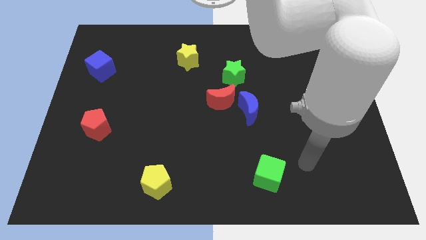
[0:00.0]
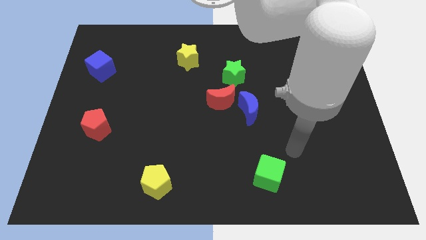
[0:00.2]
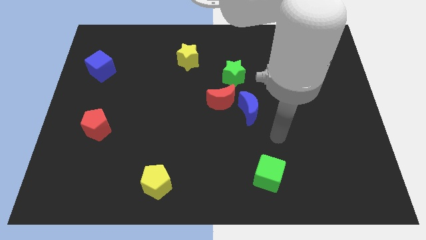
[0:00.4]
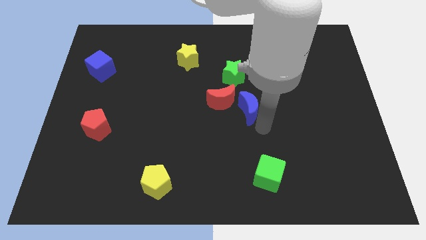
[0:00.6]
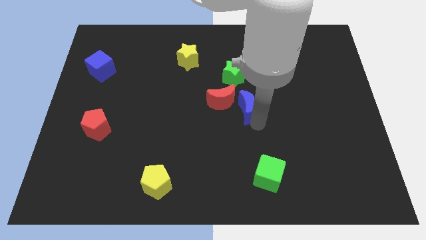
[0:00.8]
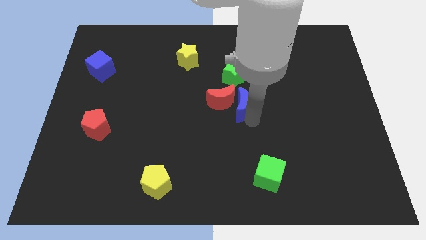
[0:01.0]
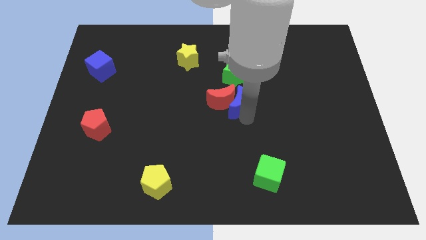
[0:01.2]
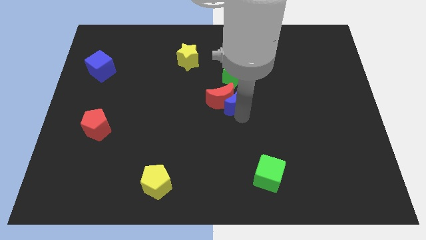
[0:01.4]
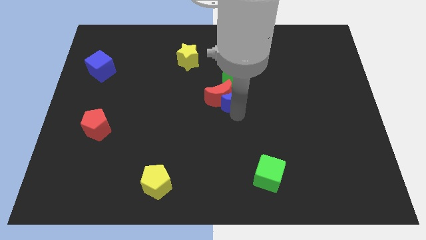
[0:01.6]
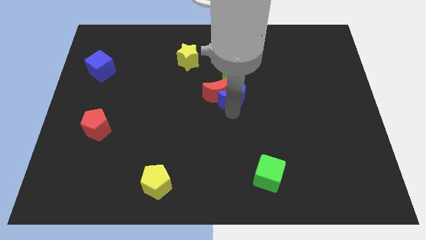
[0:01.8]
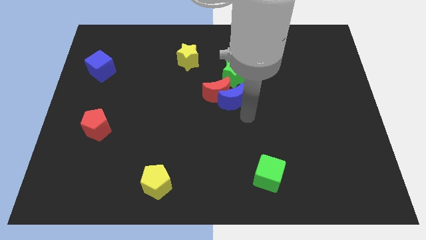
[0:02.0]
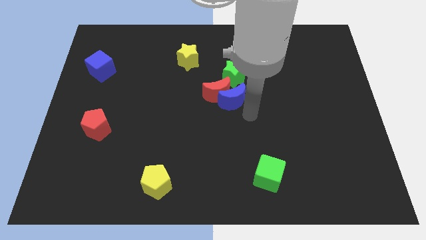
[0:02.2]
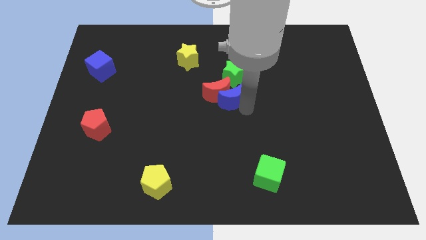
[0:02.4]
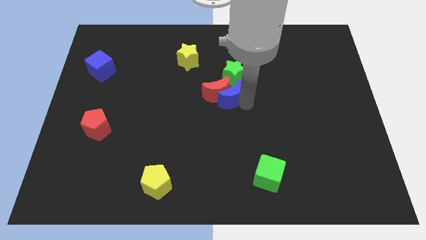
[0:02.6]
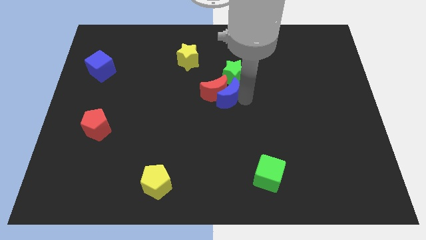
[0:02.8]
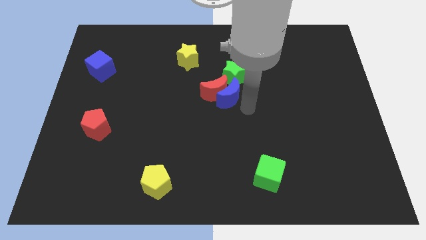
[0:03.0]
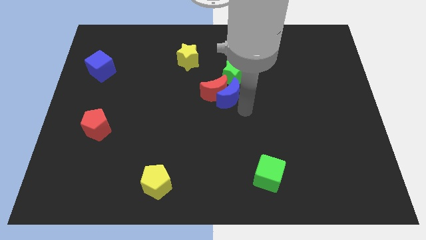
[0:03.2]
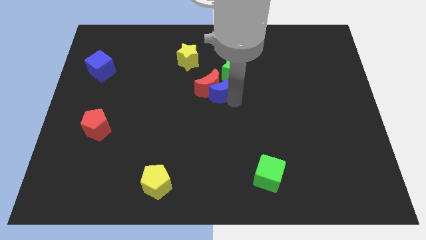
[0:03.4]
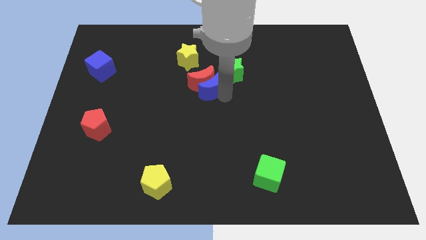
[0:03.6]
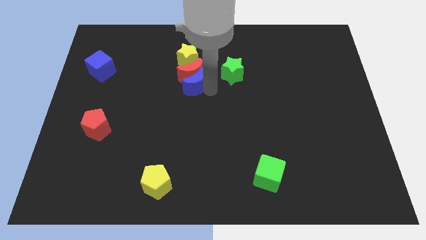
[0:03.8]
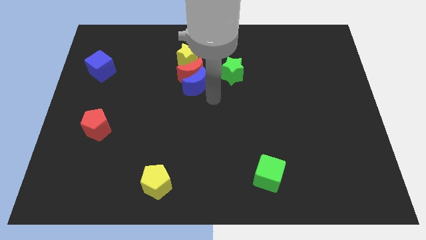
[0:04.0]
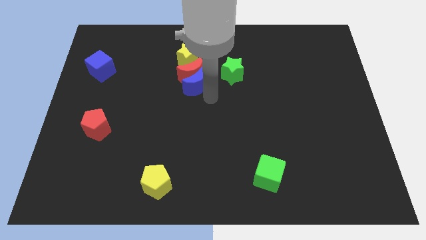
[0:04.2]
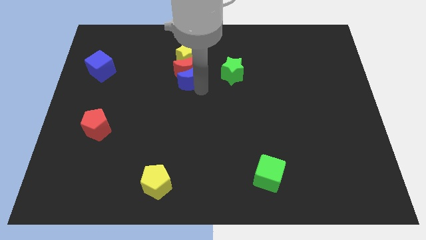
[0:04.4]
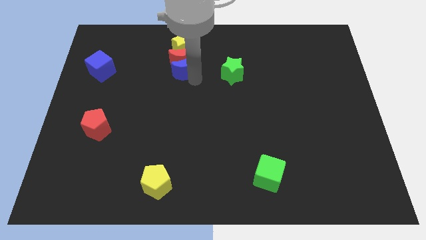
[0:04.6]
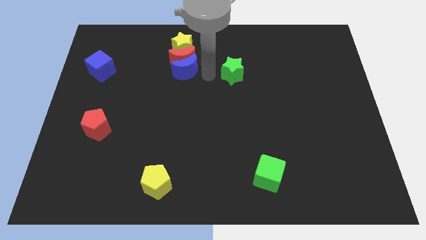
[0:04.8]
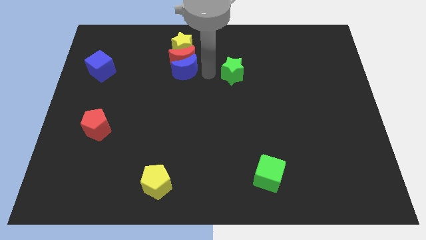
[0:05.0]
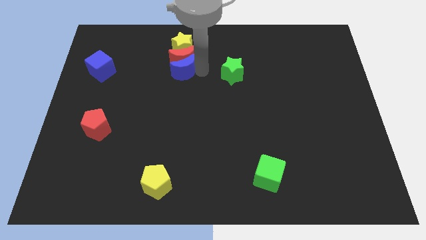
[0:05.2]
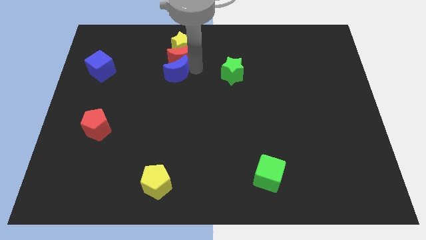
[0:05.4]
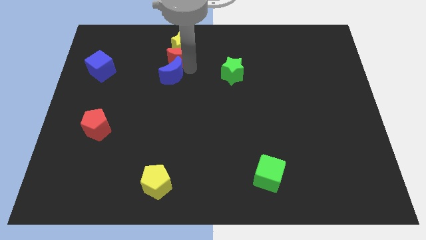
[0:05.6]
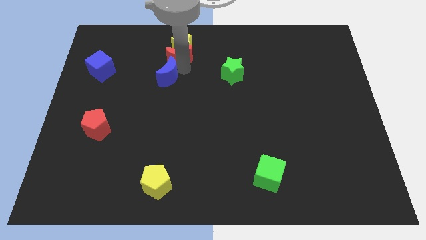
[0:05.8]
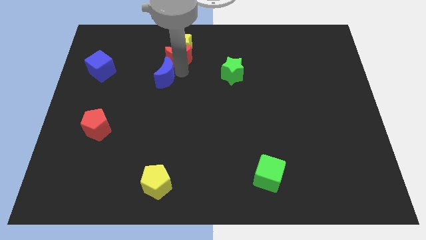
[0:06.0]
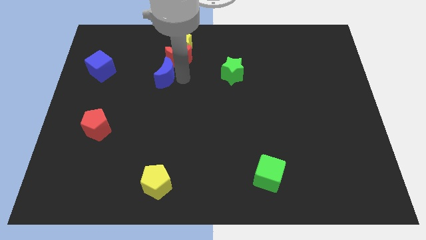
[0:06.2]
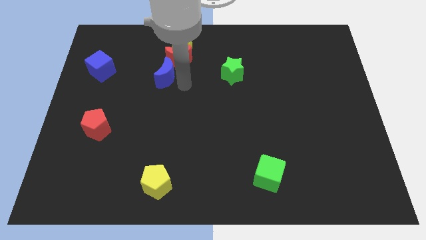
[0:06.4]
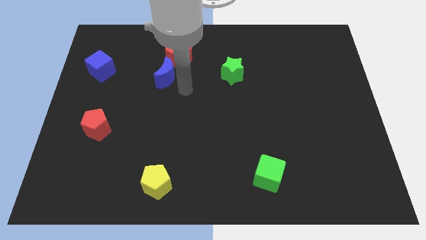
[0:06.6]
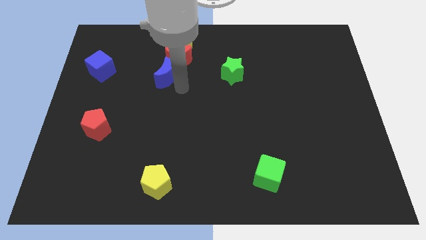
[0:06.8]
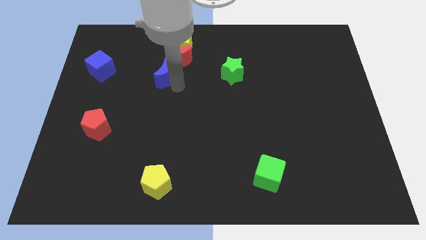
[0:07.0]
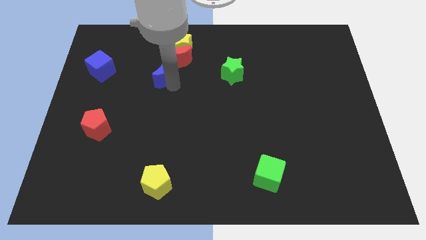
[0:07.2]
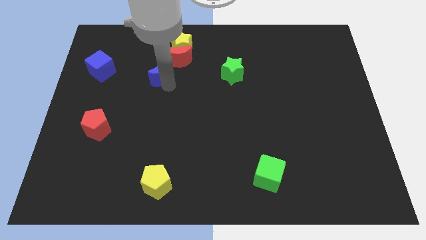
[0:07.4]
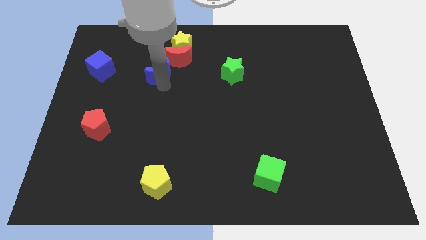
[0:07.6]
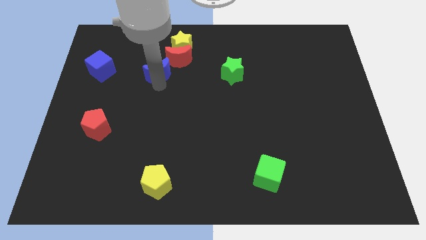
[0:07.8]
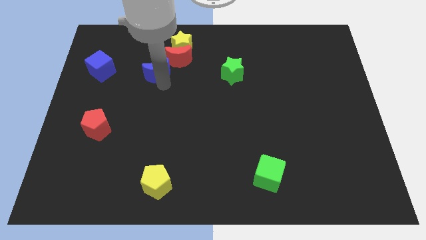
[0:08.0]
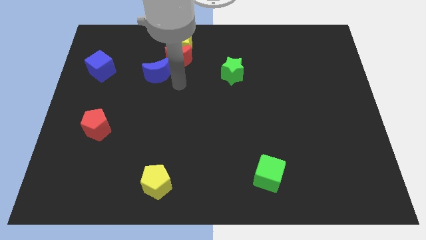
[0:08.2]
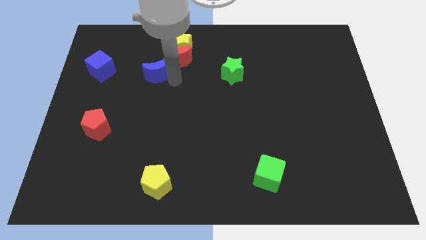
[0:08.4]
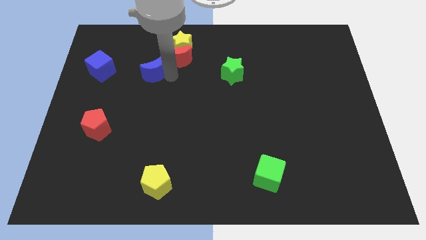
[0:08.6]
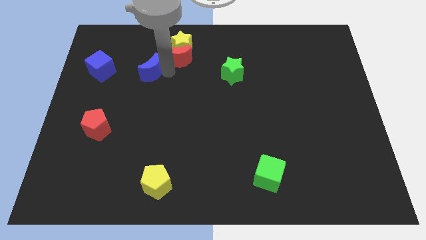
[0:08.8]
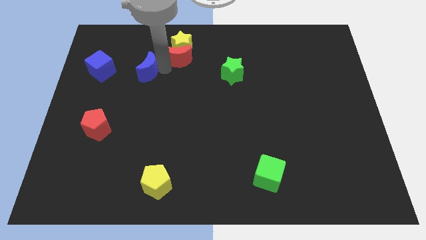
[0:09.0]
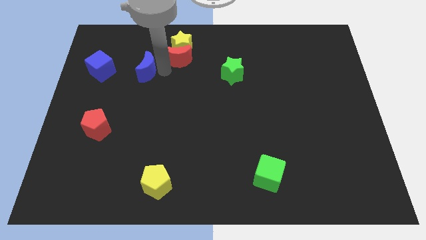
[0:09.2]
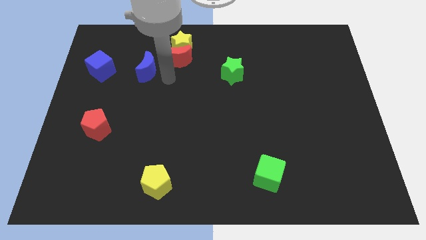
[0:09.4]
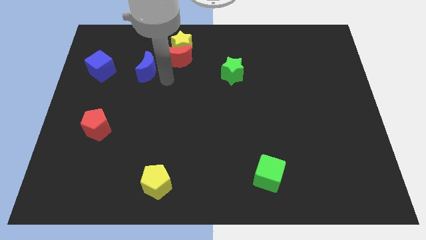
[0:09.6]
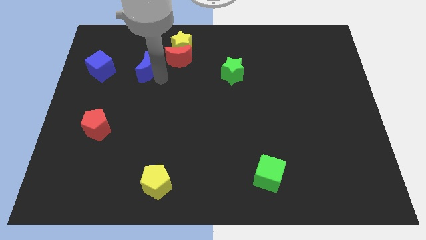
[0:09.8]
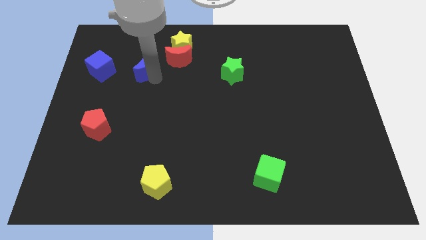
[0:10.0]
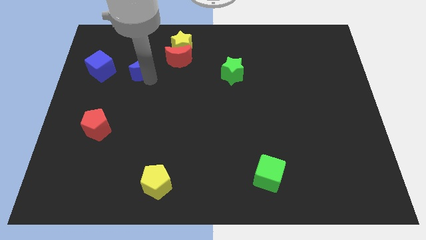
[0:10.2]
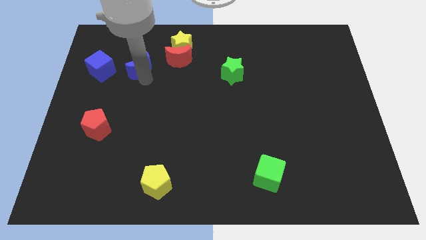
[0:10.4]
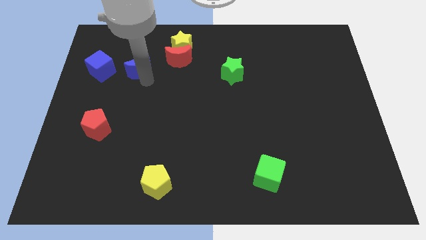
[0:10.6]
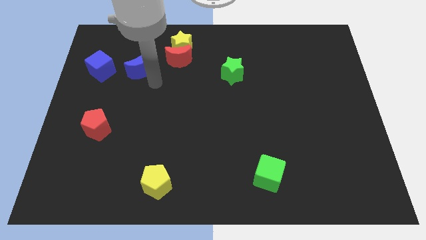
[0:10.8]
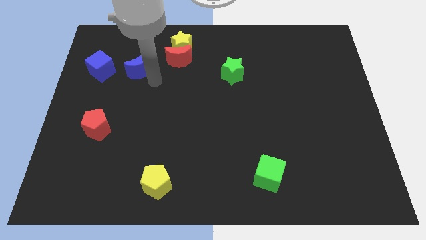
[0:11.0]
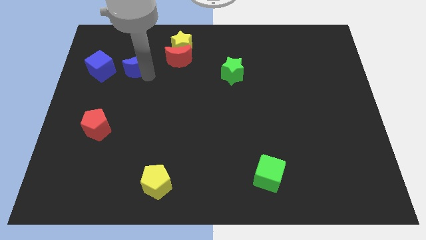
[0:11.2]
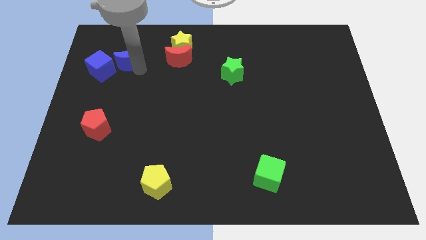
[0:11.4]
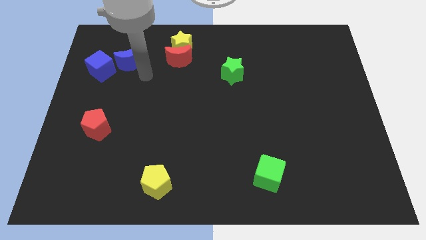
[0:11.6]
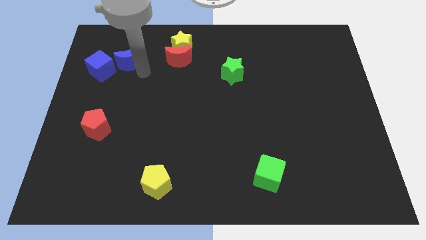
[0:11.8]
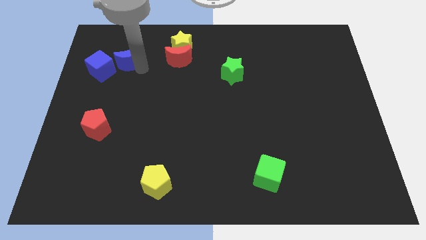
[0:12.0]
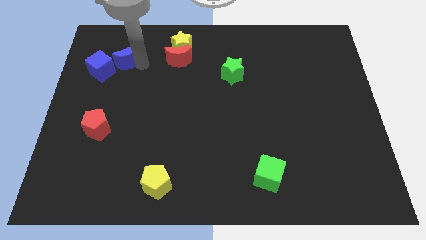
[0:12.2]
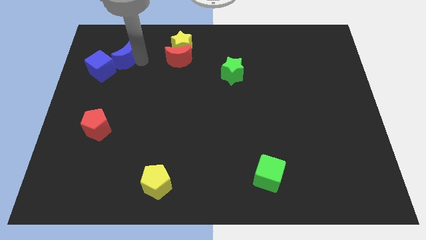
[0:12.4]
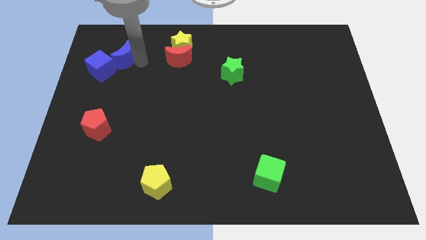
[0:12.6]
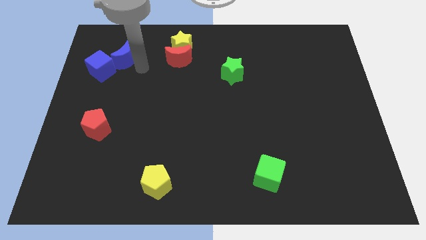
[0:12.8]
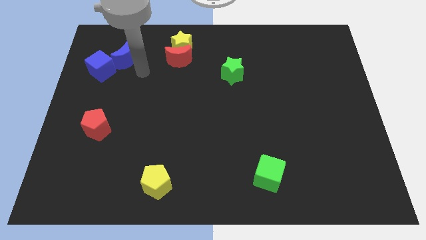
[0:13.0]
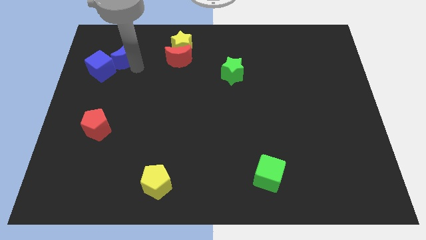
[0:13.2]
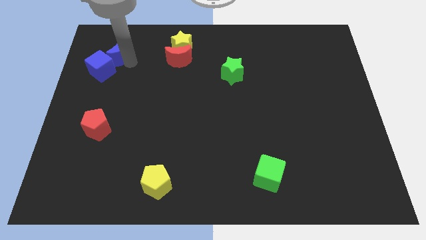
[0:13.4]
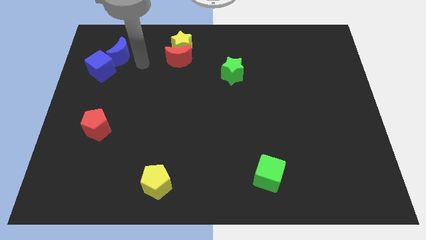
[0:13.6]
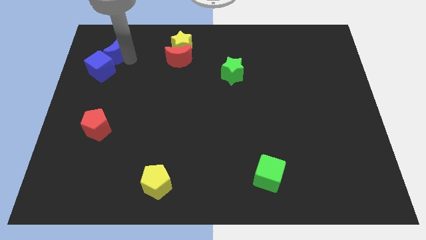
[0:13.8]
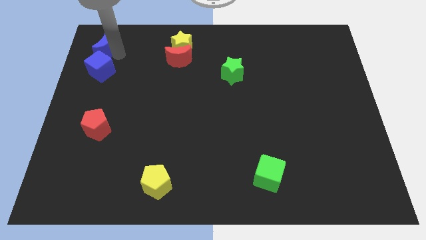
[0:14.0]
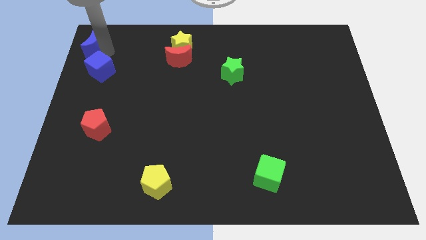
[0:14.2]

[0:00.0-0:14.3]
push the blue moon to the top left
